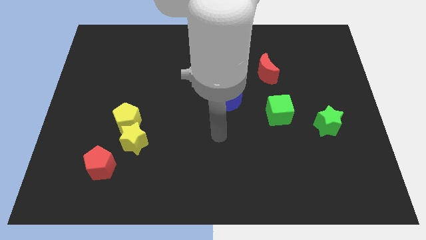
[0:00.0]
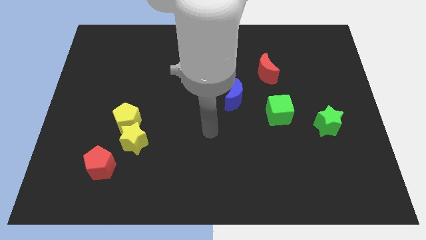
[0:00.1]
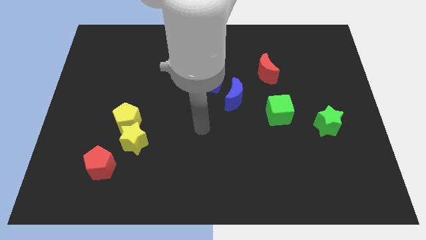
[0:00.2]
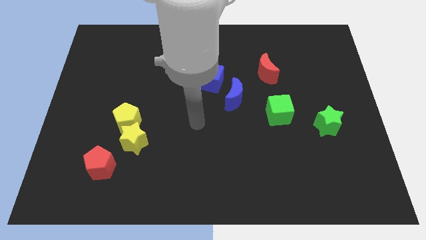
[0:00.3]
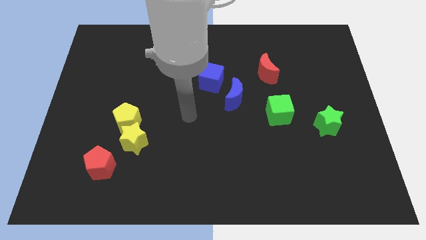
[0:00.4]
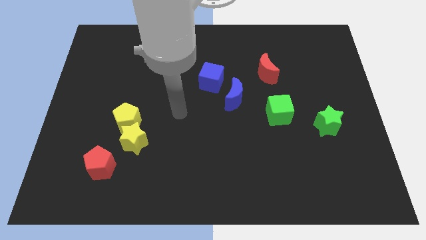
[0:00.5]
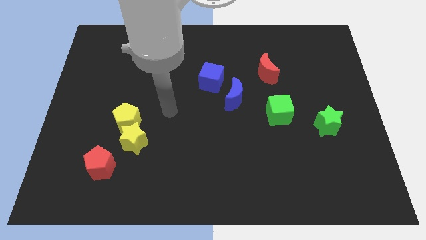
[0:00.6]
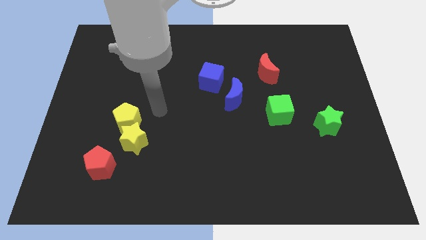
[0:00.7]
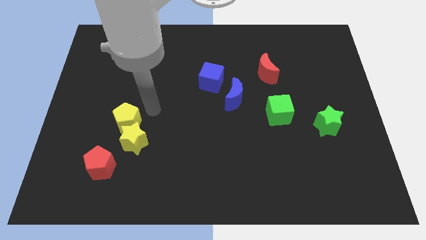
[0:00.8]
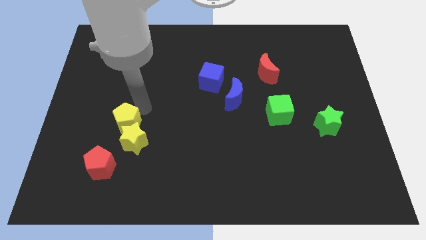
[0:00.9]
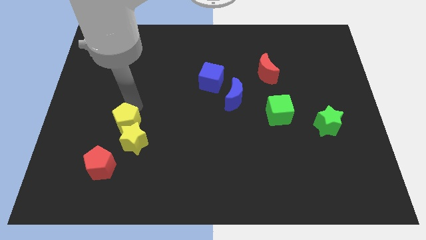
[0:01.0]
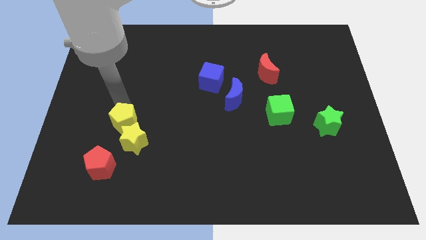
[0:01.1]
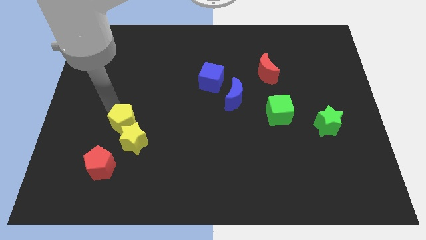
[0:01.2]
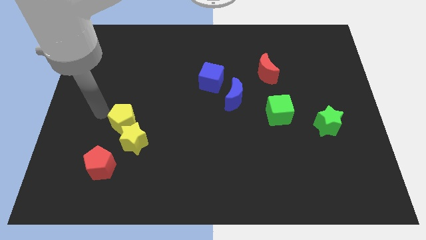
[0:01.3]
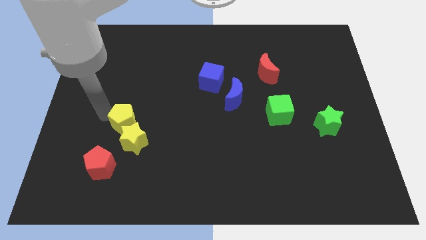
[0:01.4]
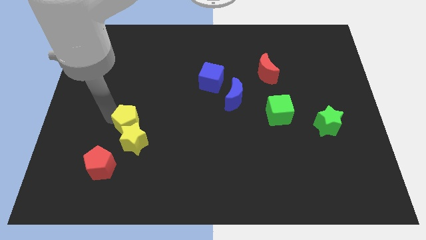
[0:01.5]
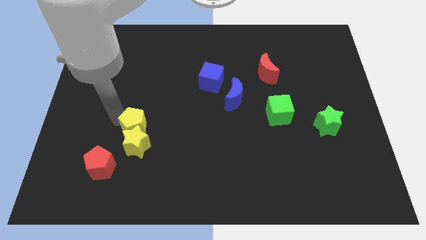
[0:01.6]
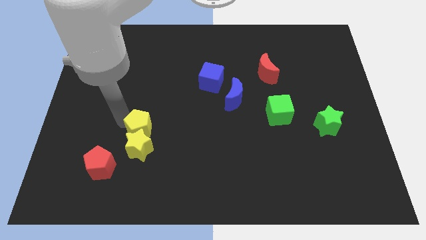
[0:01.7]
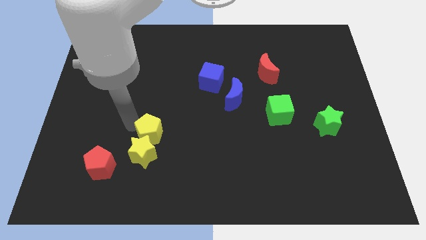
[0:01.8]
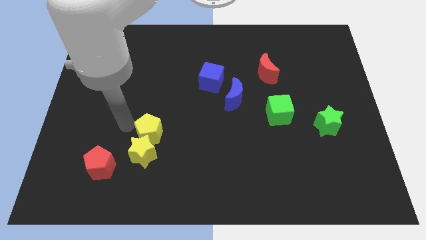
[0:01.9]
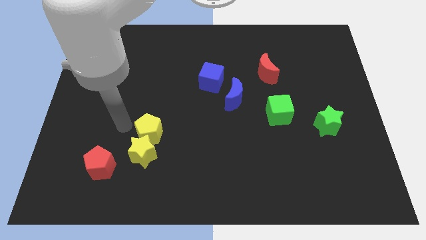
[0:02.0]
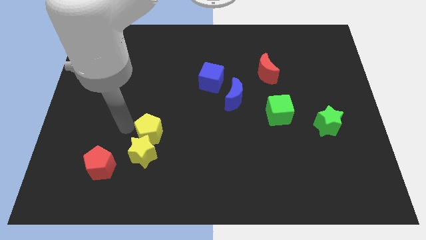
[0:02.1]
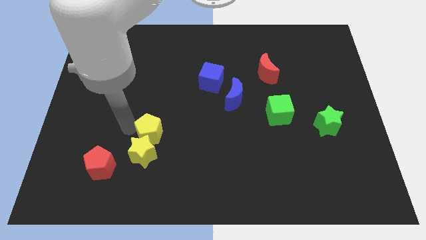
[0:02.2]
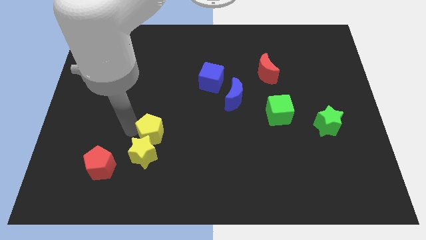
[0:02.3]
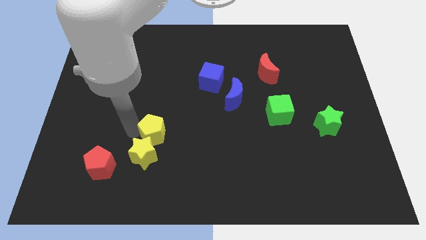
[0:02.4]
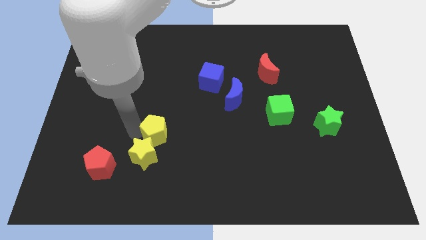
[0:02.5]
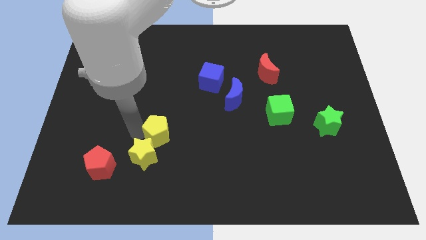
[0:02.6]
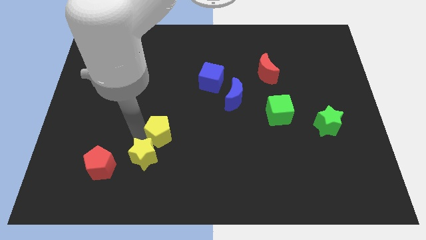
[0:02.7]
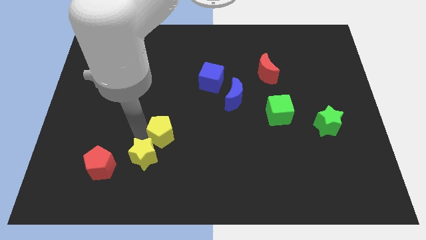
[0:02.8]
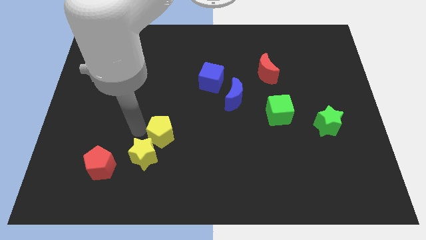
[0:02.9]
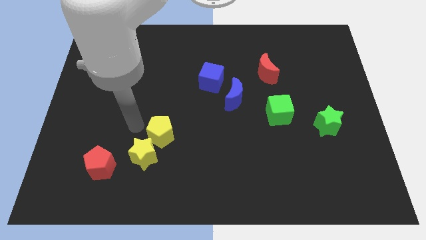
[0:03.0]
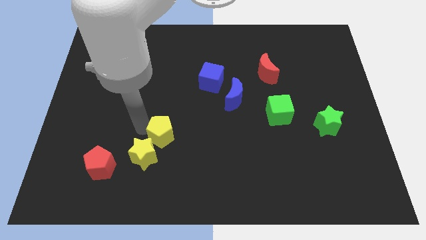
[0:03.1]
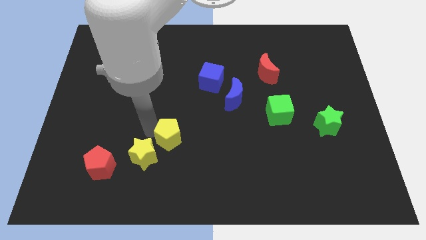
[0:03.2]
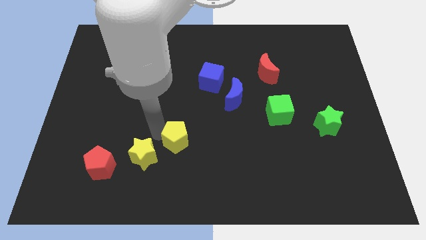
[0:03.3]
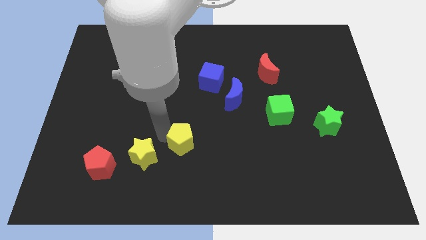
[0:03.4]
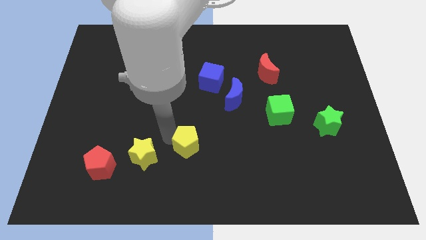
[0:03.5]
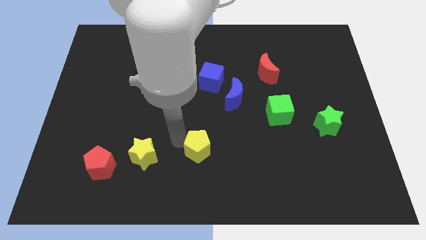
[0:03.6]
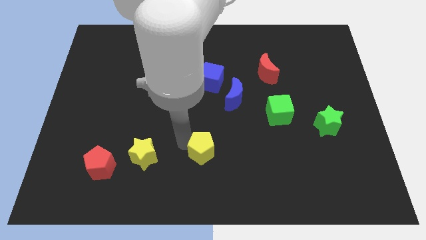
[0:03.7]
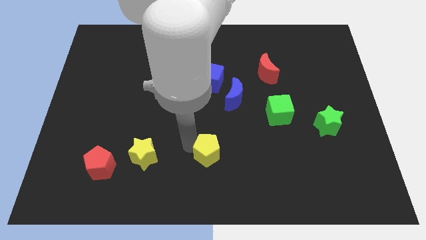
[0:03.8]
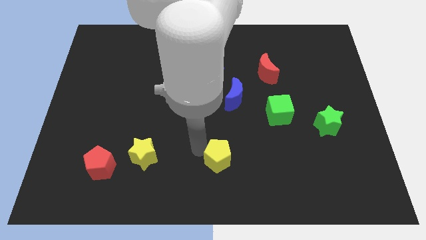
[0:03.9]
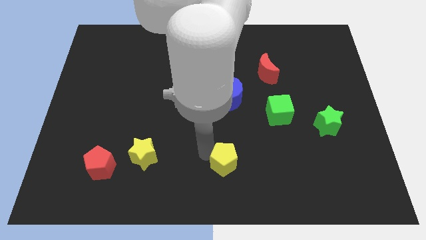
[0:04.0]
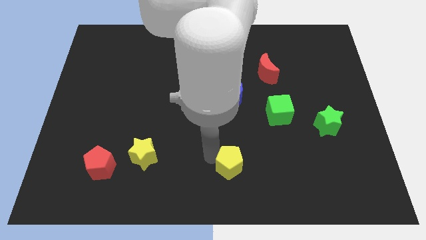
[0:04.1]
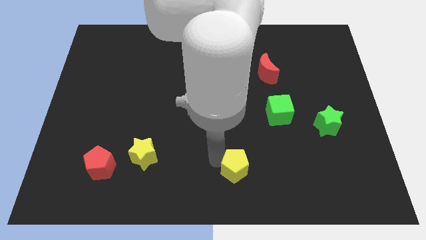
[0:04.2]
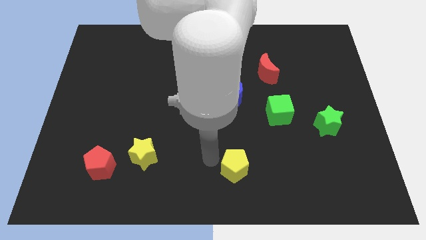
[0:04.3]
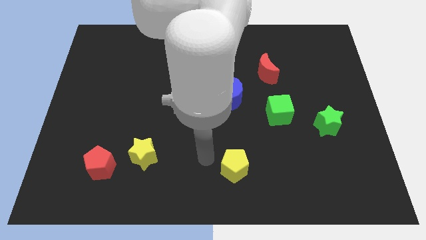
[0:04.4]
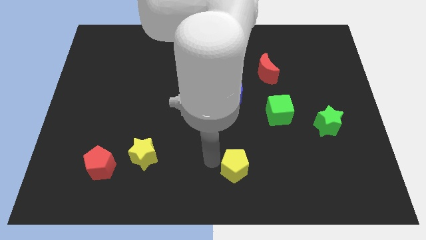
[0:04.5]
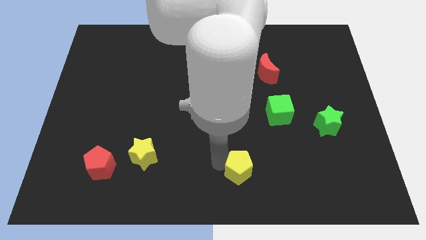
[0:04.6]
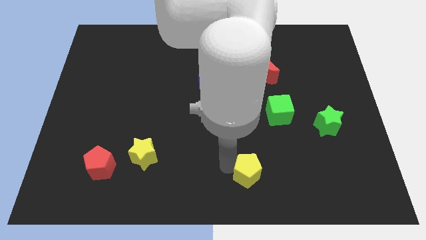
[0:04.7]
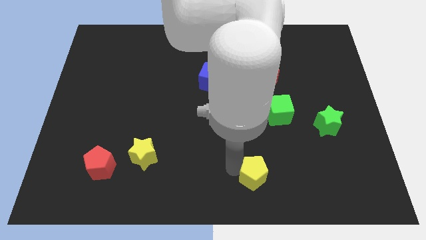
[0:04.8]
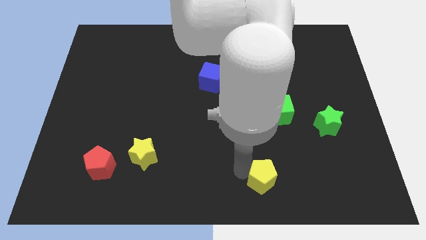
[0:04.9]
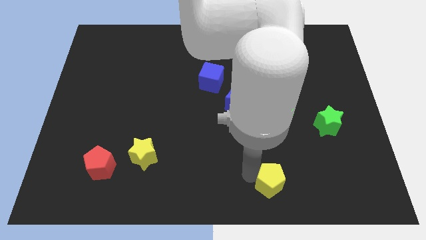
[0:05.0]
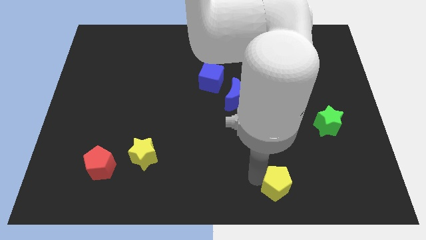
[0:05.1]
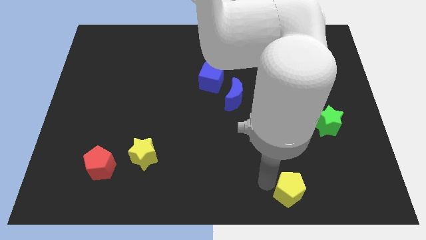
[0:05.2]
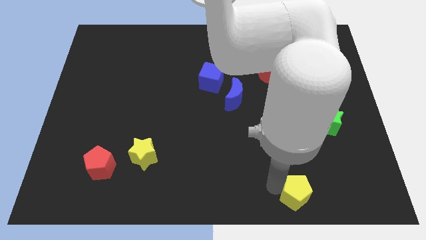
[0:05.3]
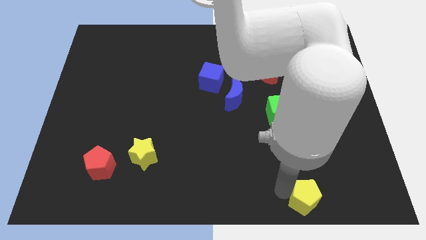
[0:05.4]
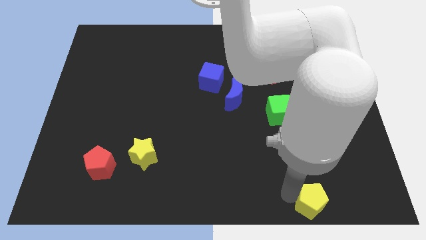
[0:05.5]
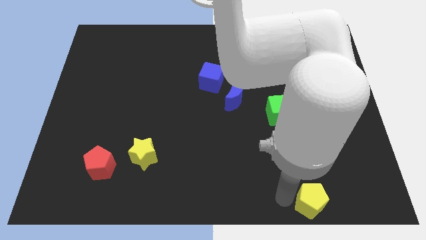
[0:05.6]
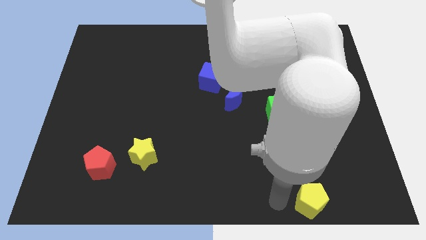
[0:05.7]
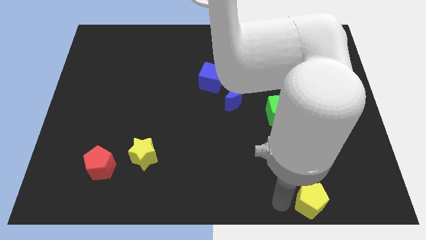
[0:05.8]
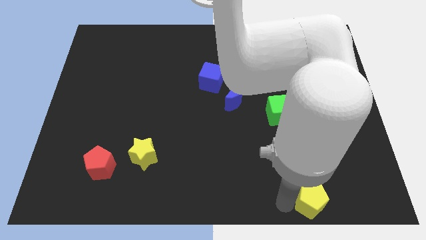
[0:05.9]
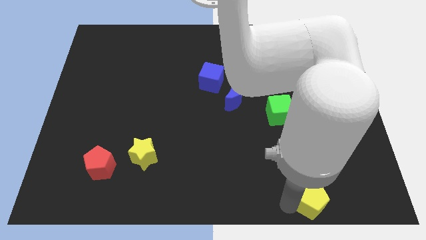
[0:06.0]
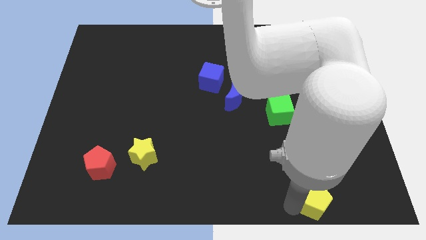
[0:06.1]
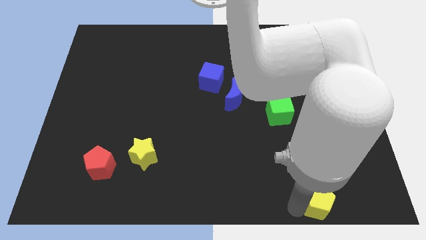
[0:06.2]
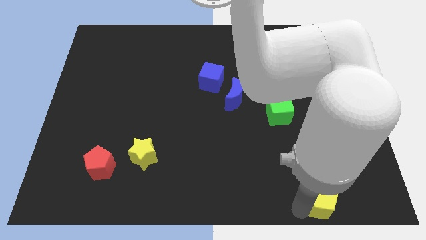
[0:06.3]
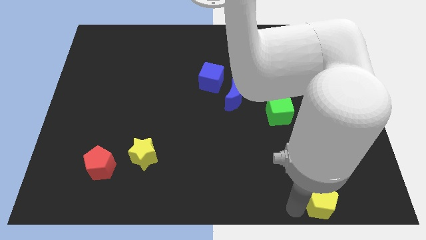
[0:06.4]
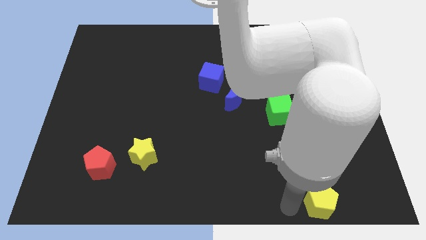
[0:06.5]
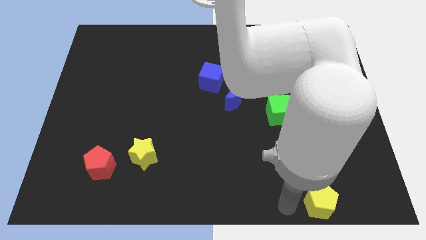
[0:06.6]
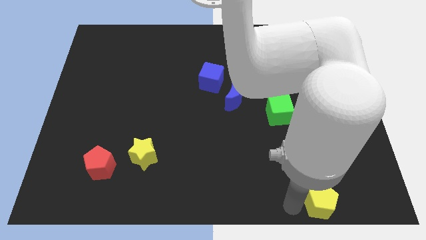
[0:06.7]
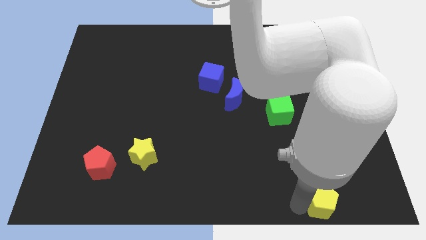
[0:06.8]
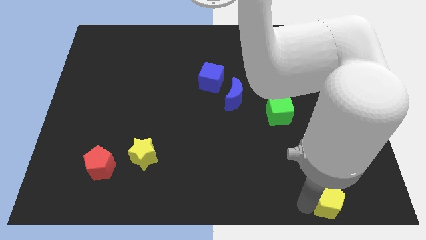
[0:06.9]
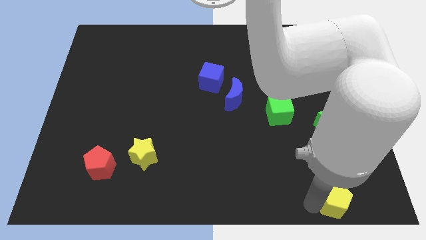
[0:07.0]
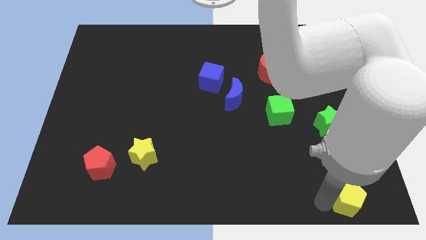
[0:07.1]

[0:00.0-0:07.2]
put the yellow pentagon to the bottom right
